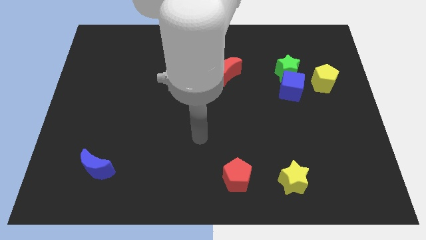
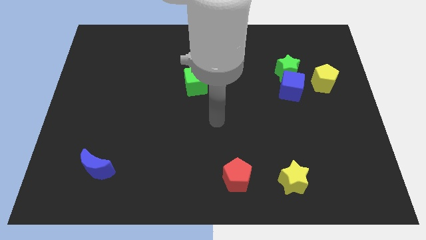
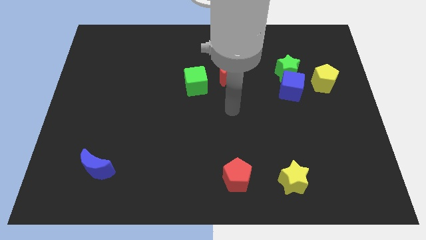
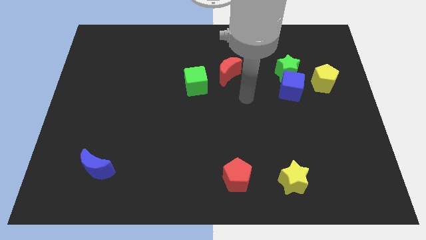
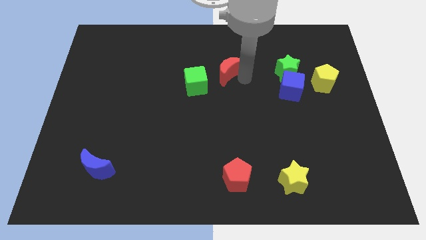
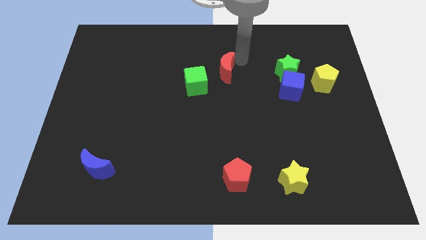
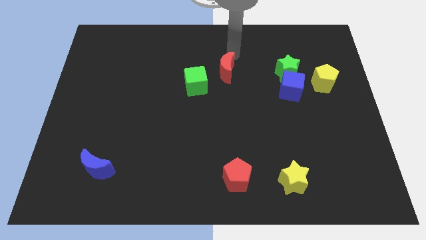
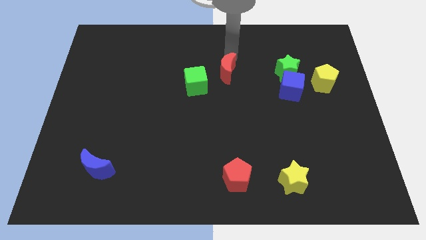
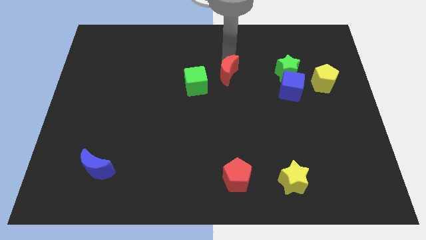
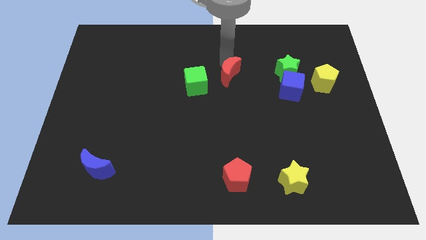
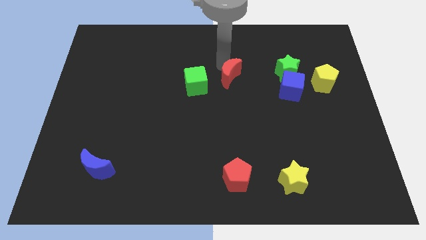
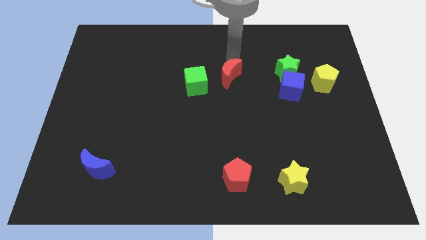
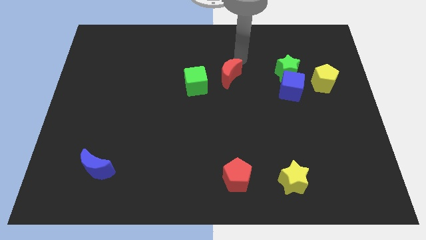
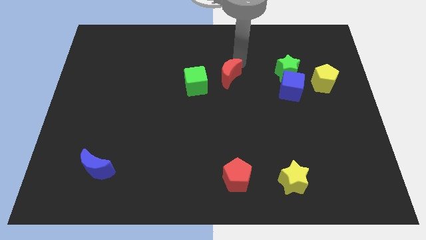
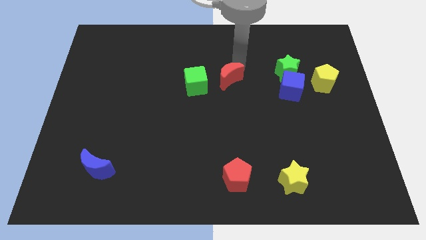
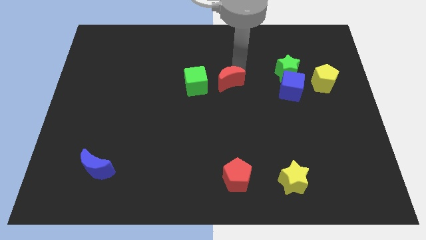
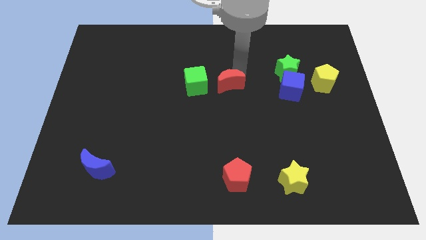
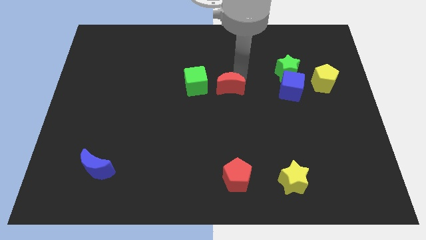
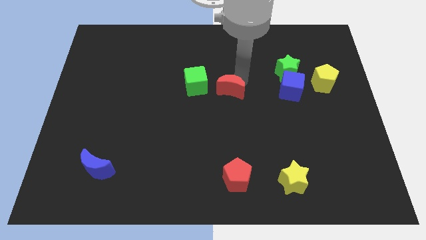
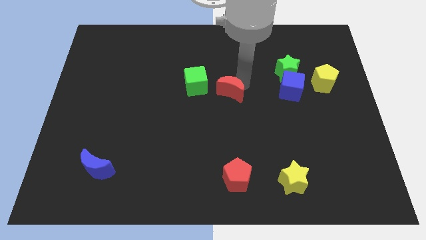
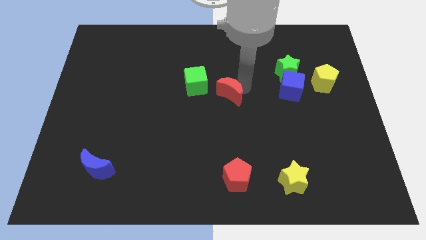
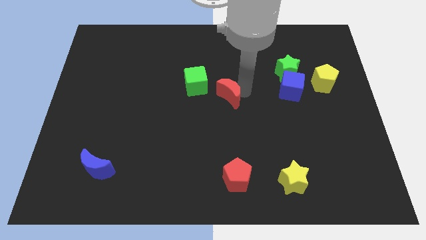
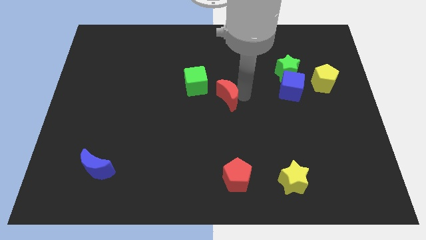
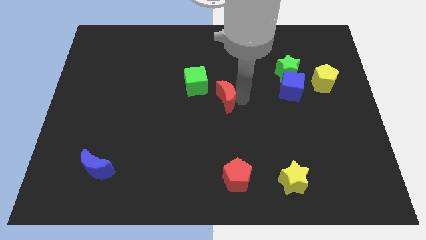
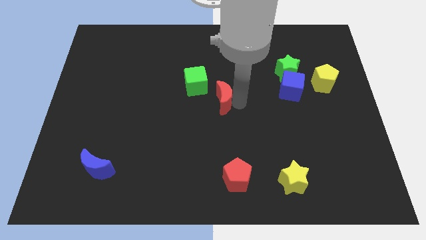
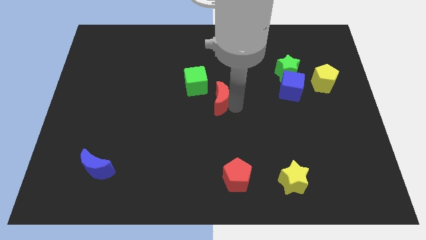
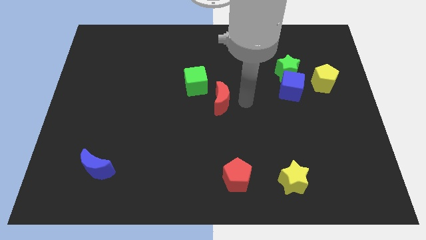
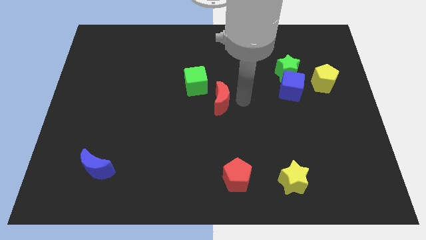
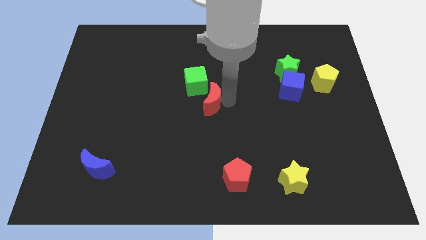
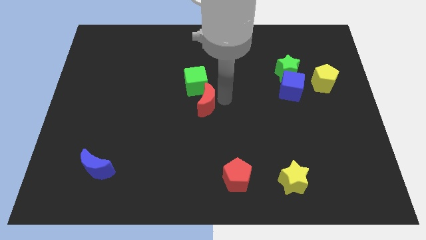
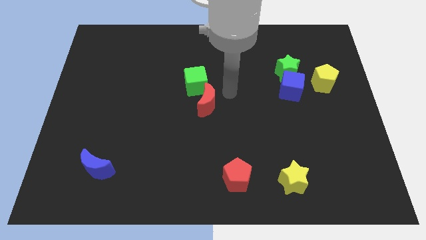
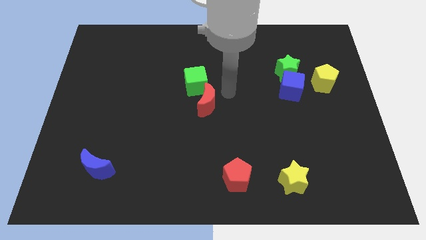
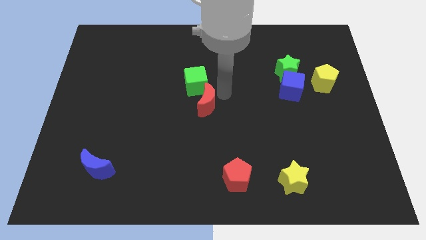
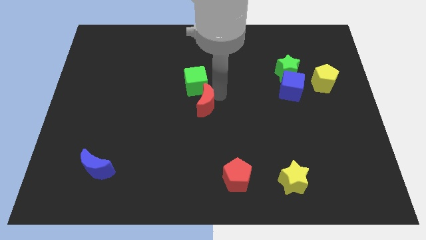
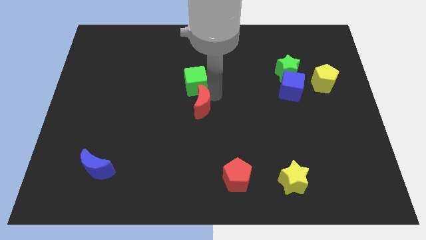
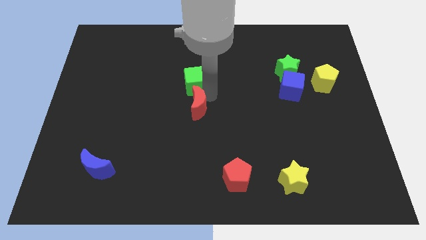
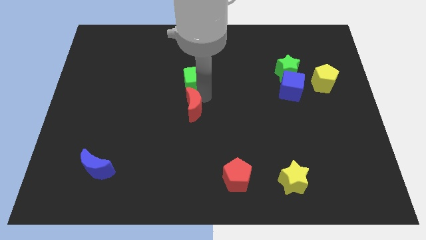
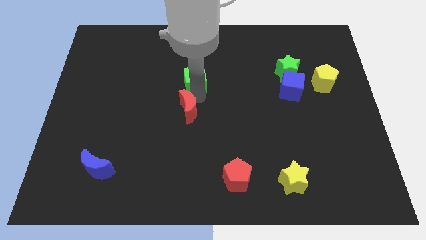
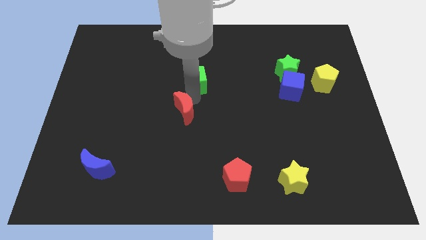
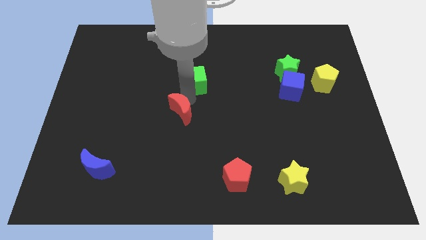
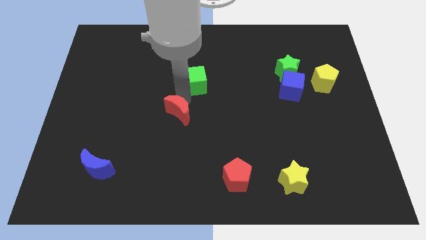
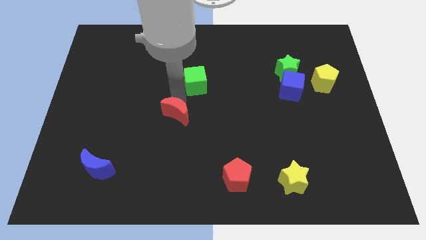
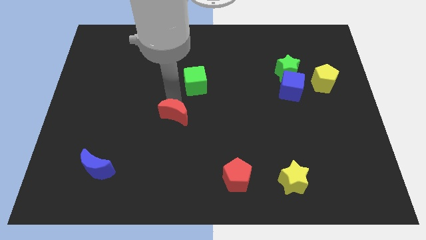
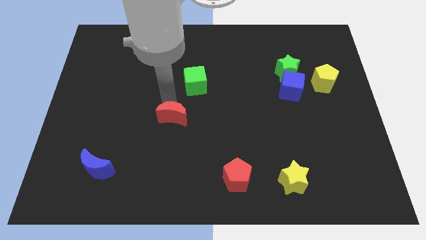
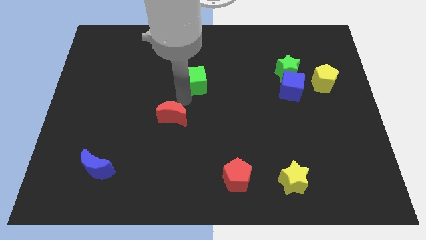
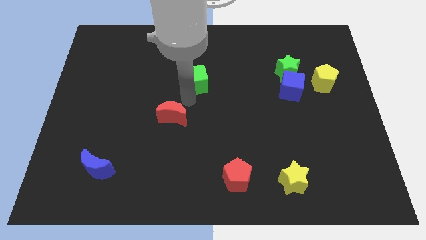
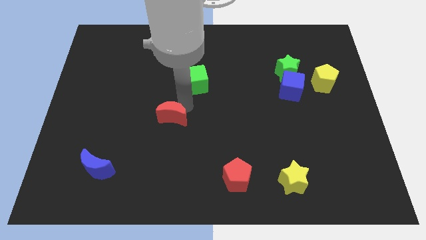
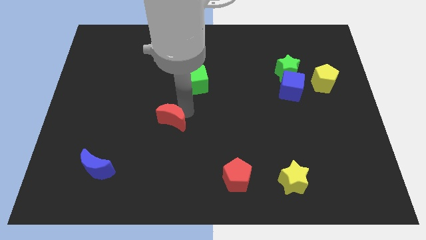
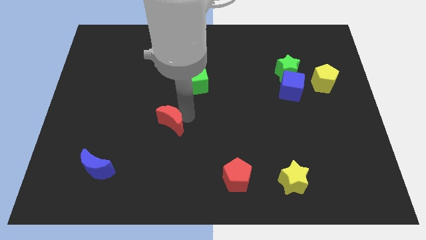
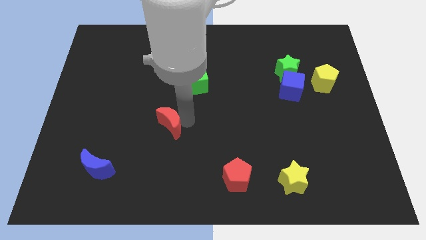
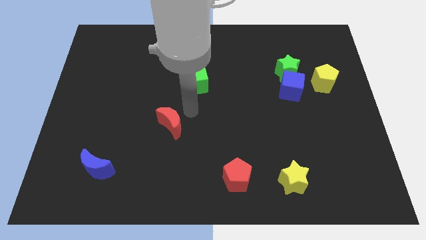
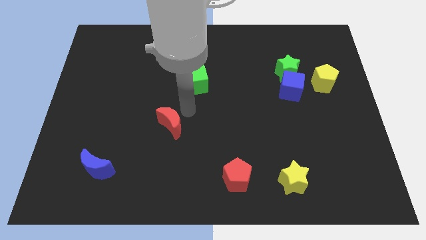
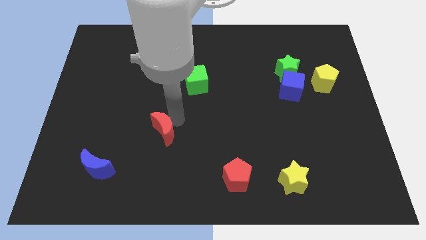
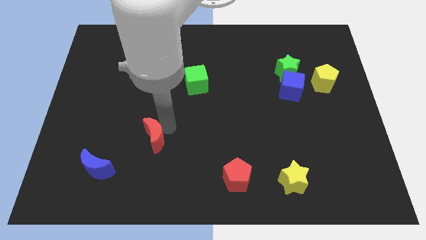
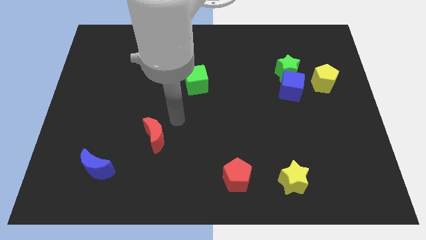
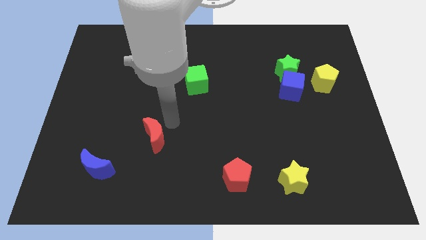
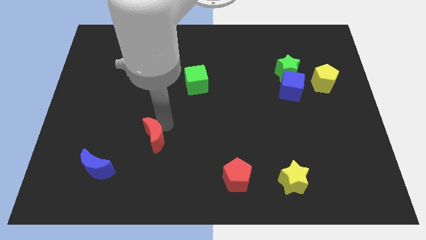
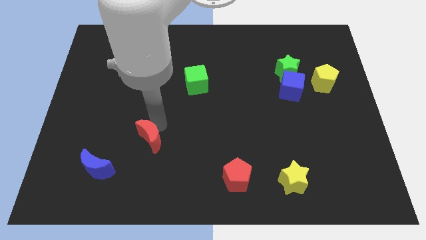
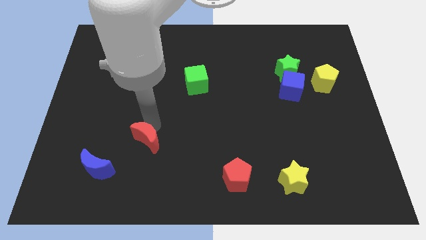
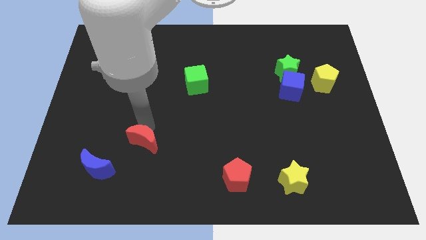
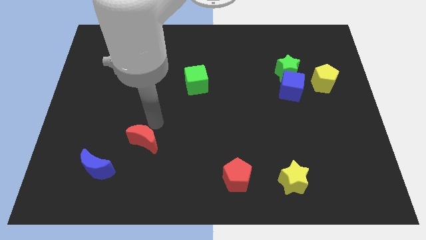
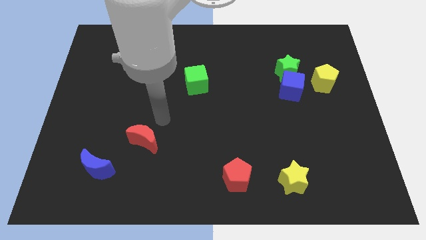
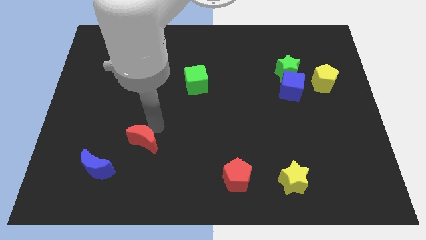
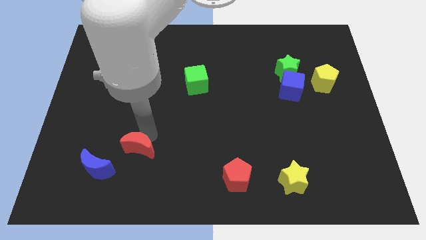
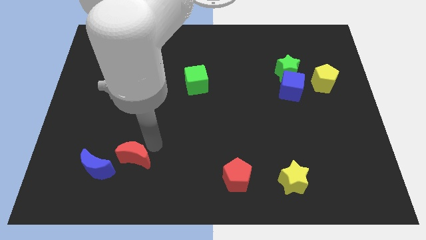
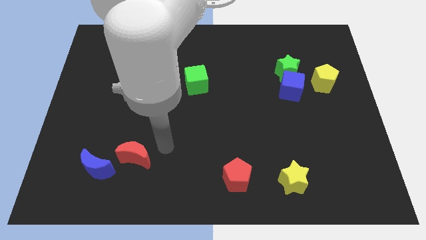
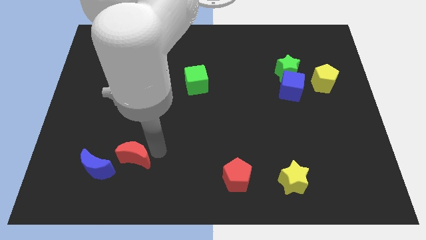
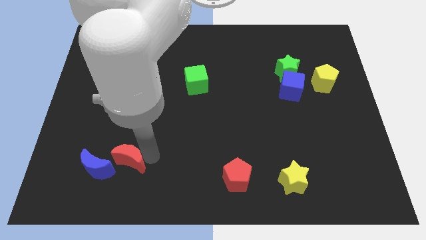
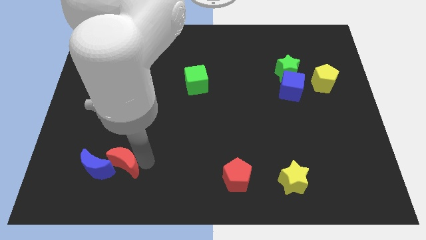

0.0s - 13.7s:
push the red moon next to the blue moon

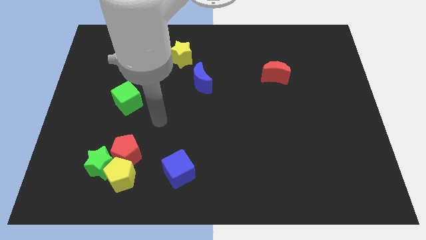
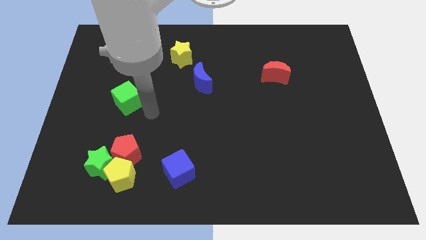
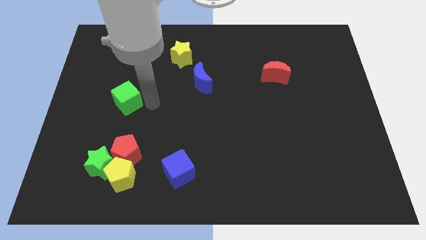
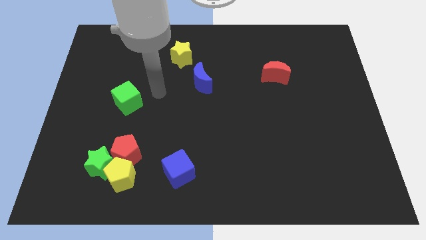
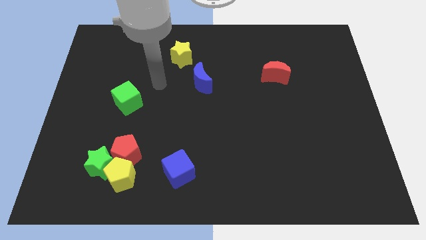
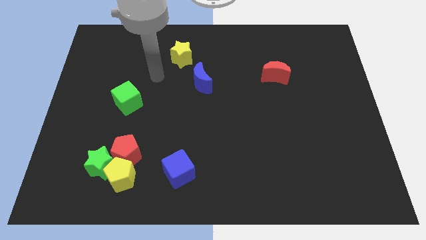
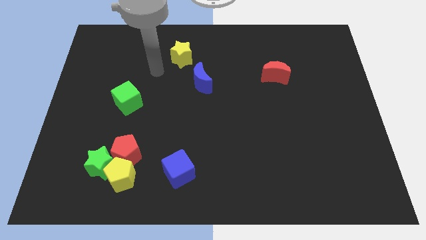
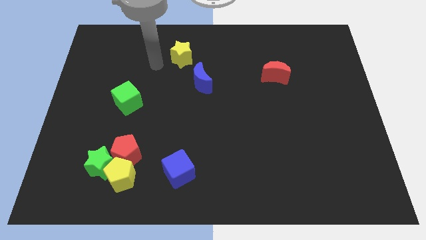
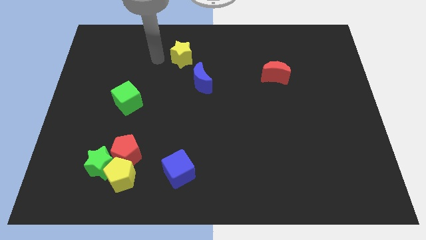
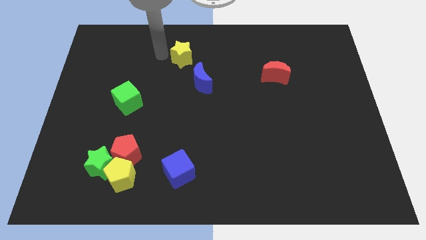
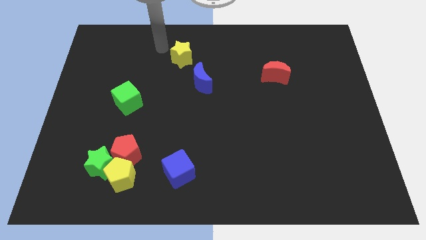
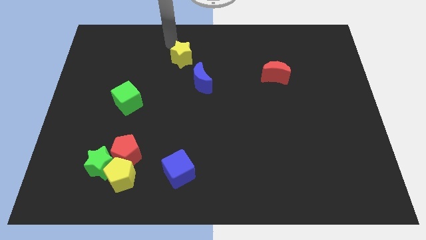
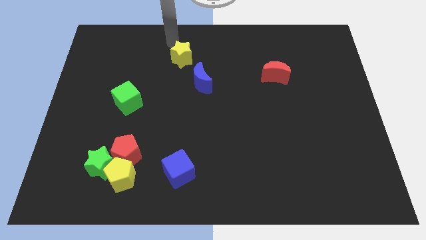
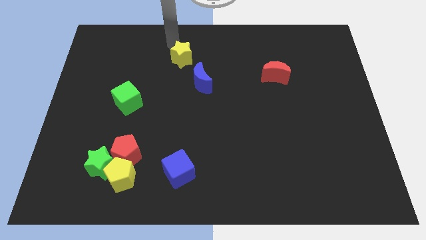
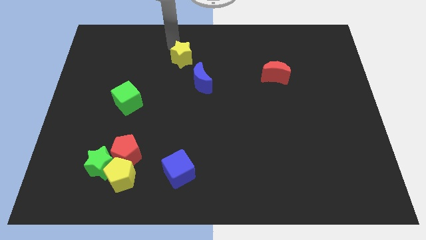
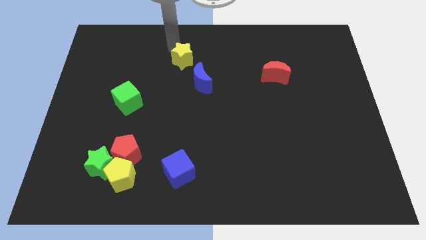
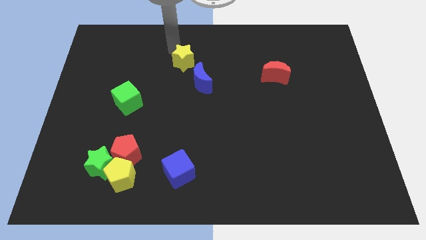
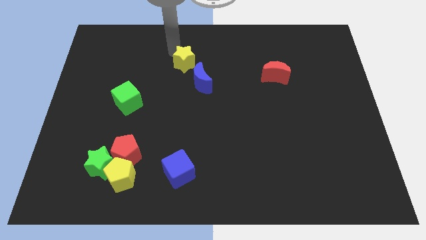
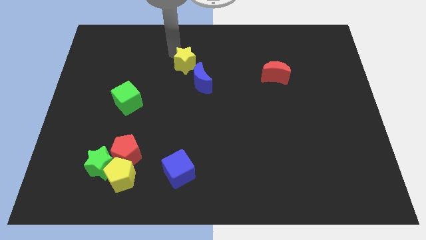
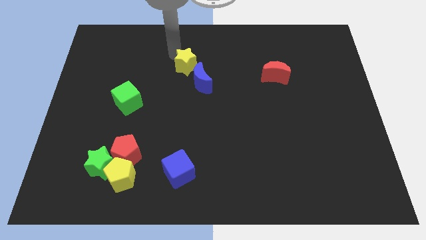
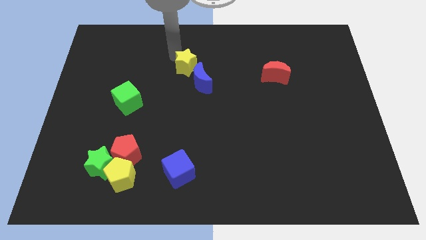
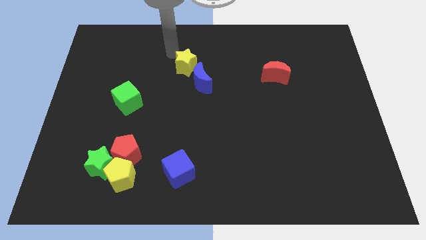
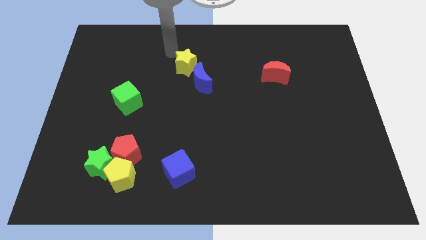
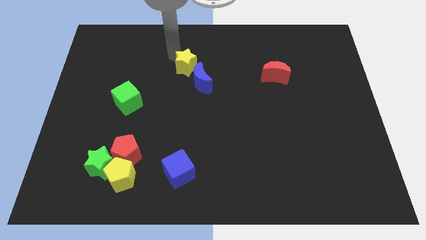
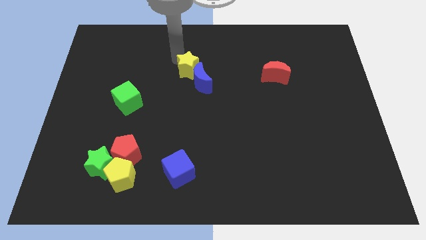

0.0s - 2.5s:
push the yellow star next to the blue moon
